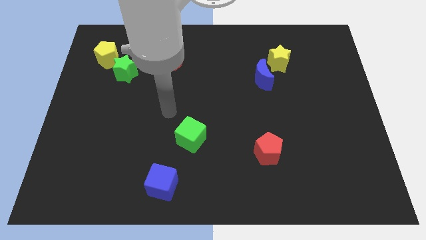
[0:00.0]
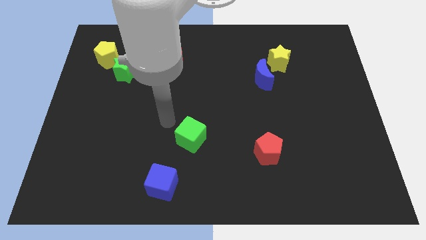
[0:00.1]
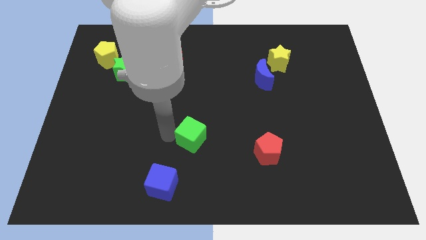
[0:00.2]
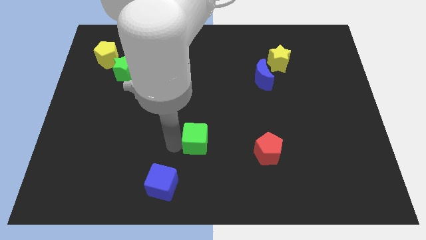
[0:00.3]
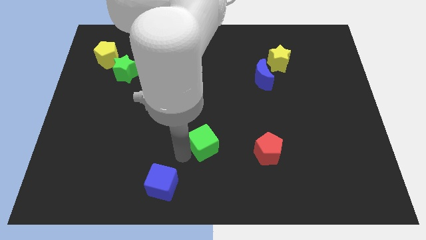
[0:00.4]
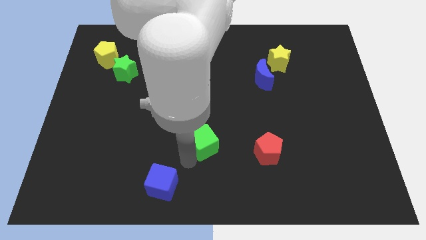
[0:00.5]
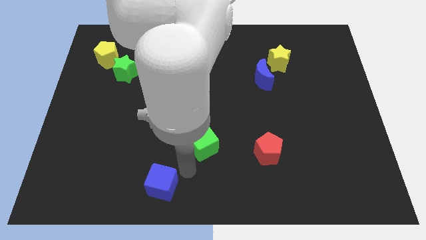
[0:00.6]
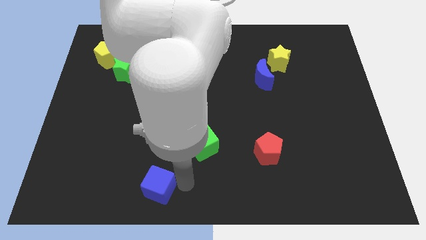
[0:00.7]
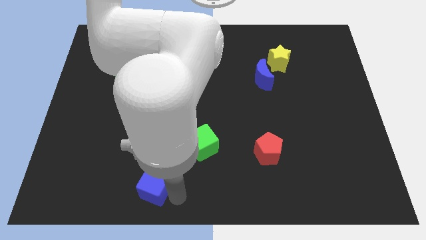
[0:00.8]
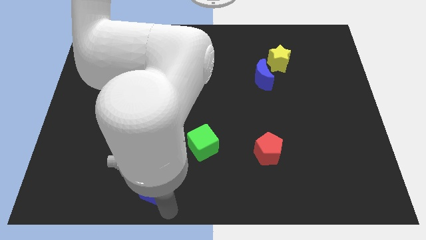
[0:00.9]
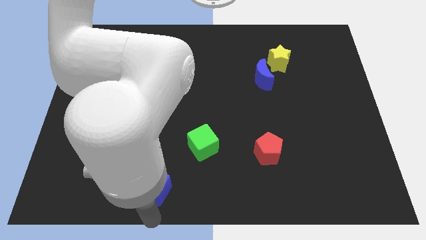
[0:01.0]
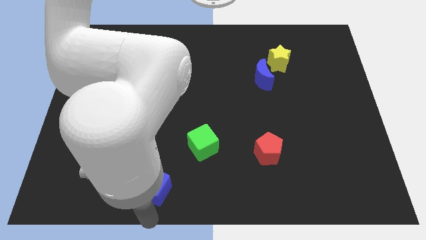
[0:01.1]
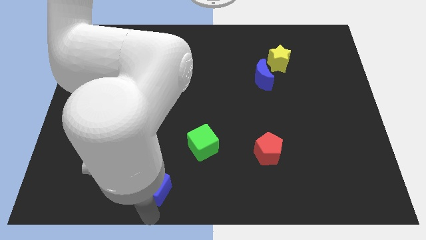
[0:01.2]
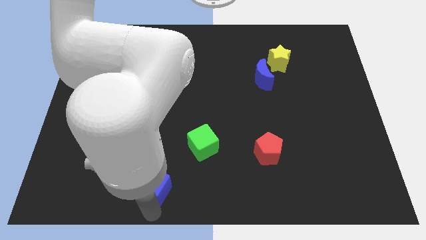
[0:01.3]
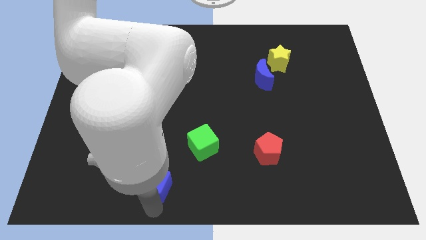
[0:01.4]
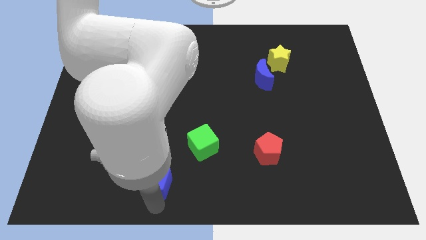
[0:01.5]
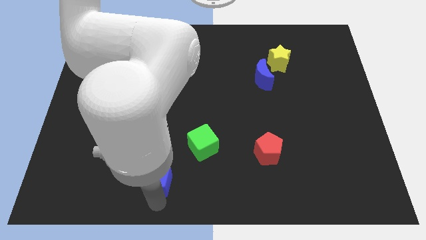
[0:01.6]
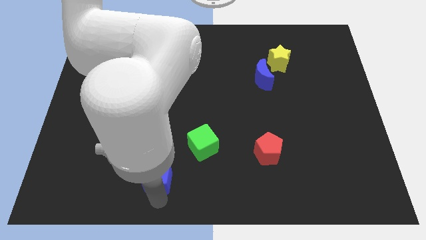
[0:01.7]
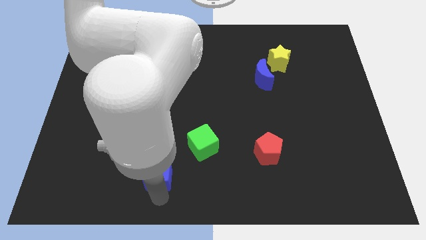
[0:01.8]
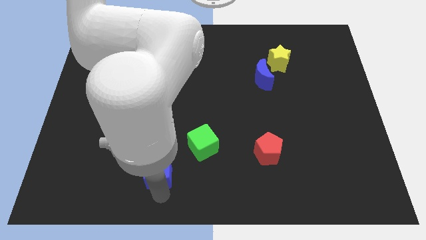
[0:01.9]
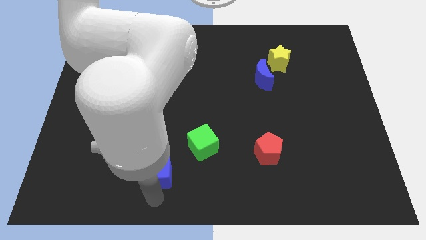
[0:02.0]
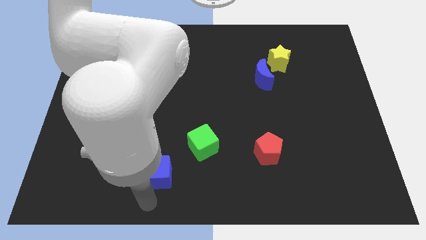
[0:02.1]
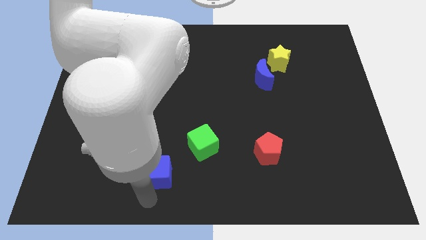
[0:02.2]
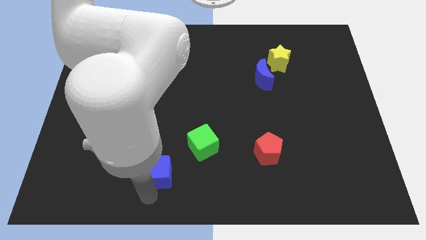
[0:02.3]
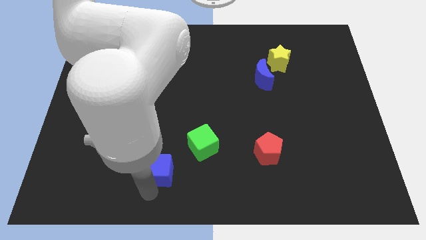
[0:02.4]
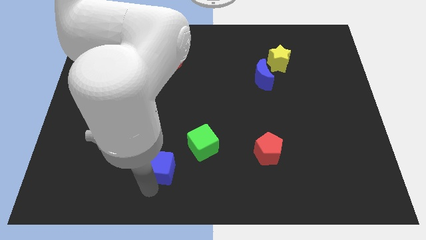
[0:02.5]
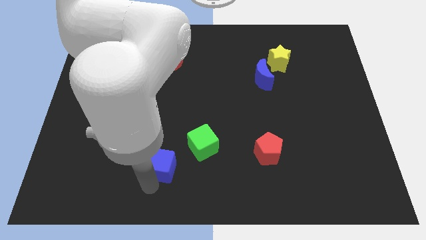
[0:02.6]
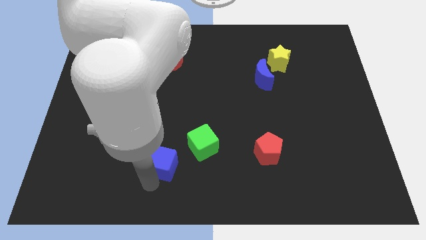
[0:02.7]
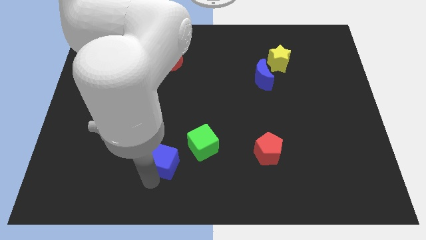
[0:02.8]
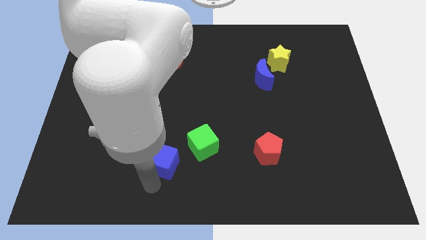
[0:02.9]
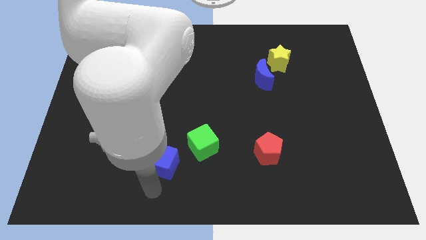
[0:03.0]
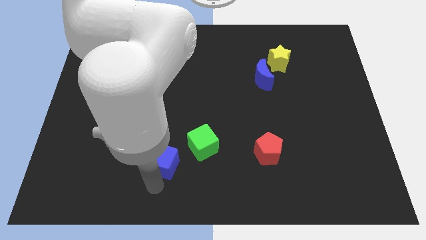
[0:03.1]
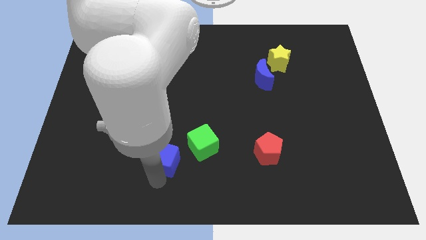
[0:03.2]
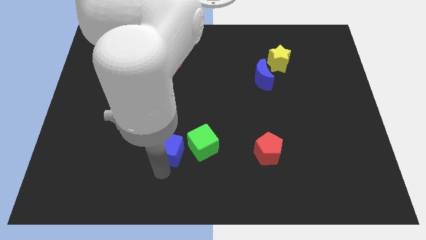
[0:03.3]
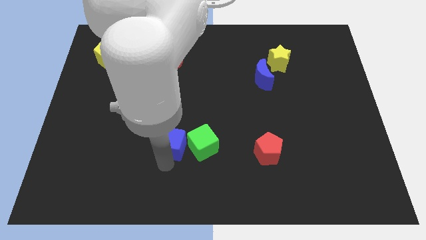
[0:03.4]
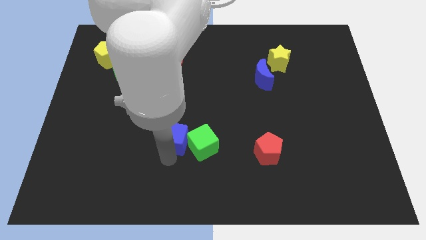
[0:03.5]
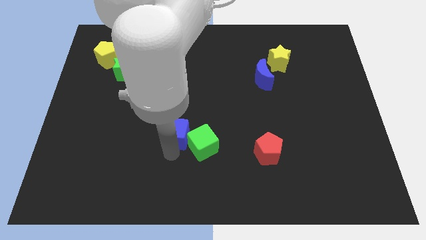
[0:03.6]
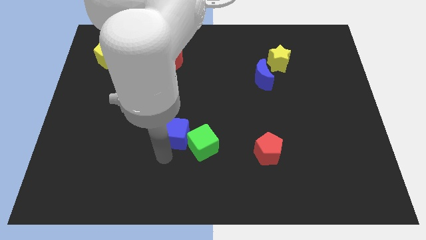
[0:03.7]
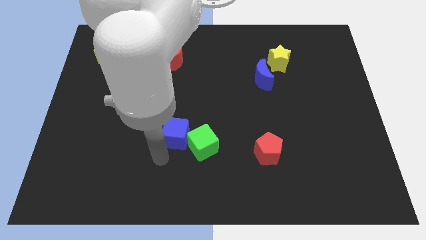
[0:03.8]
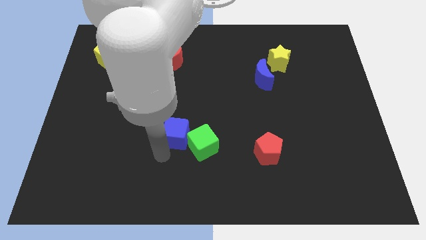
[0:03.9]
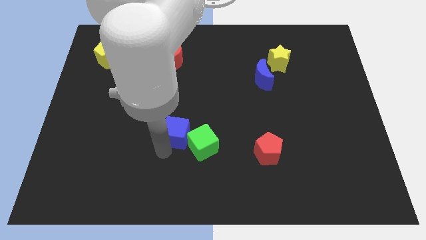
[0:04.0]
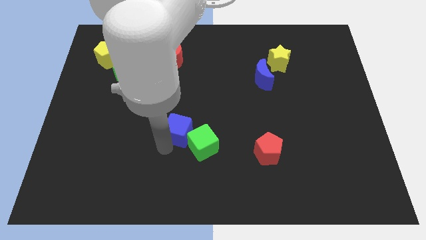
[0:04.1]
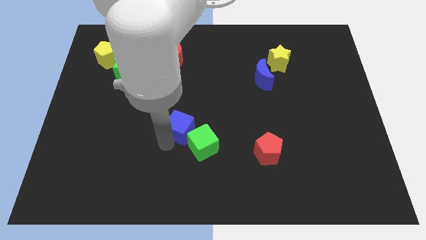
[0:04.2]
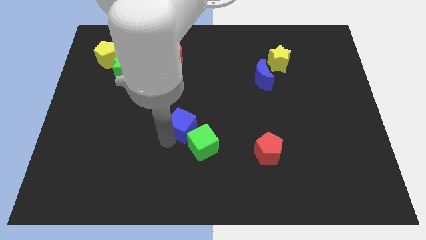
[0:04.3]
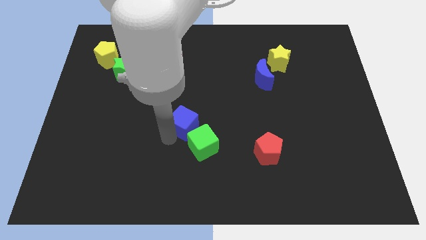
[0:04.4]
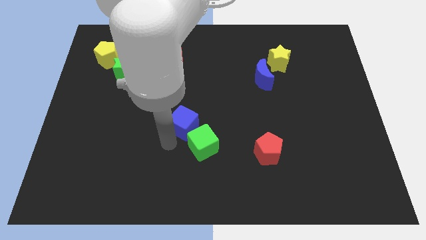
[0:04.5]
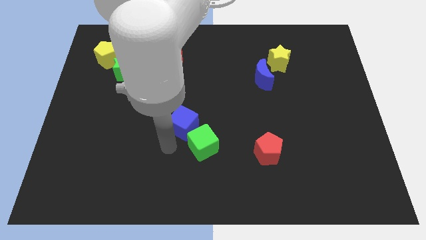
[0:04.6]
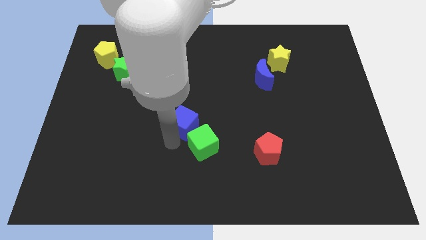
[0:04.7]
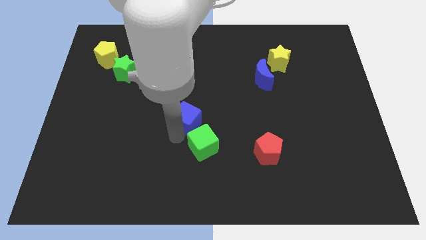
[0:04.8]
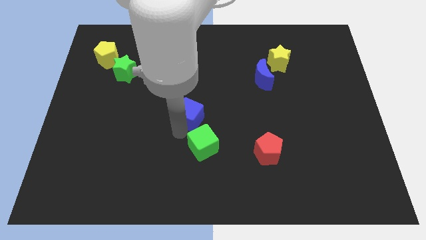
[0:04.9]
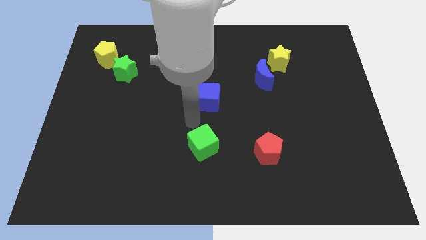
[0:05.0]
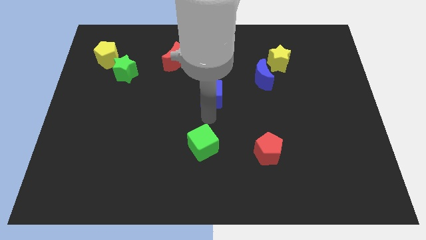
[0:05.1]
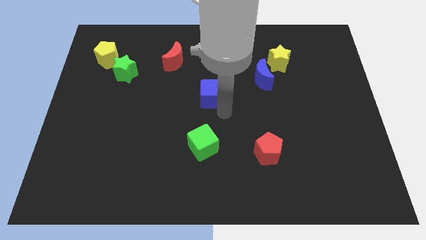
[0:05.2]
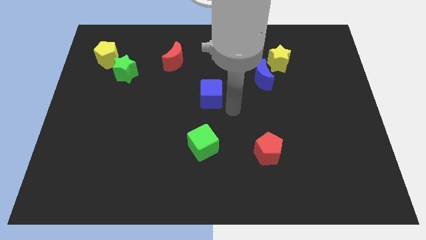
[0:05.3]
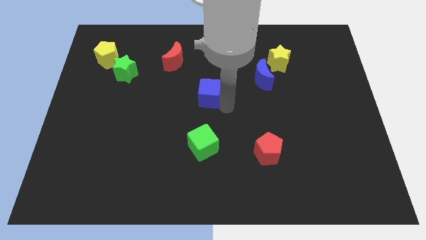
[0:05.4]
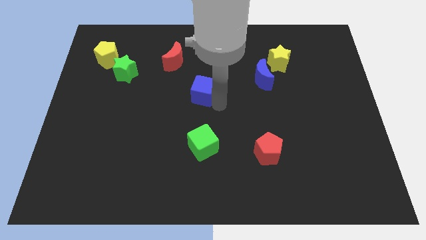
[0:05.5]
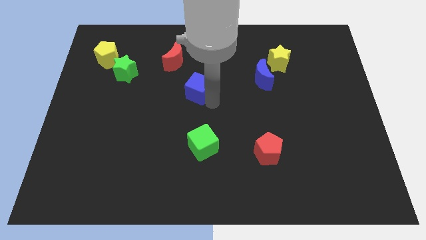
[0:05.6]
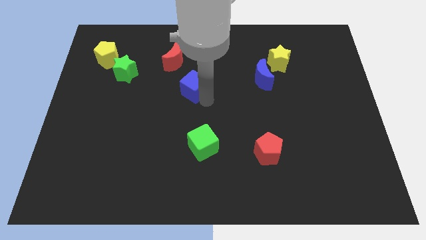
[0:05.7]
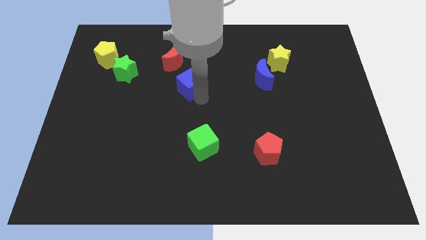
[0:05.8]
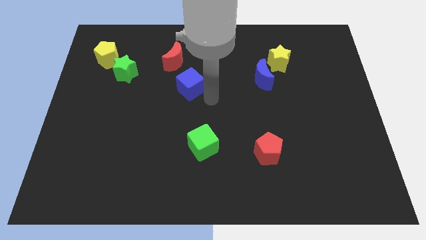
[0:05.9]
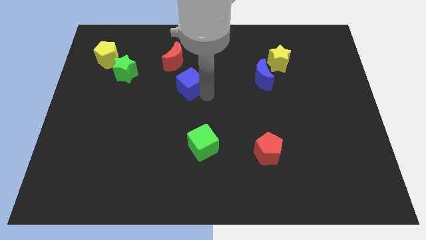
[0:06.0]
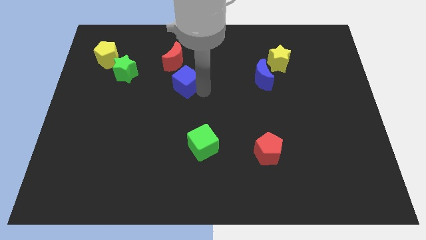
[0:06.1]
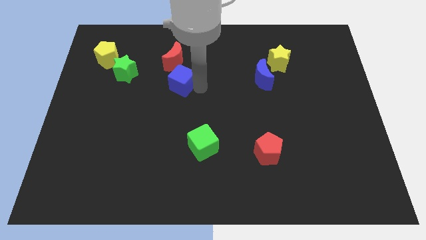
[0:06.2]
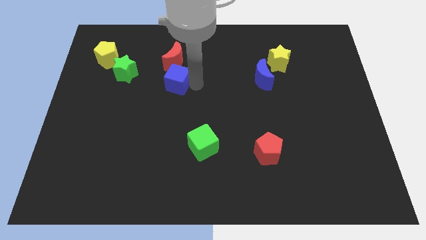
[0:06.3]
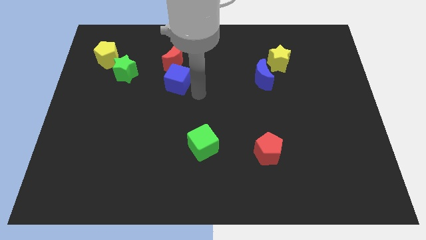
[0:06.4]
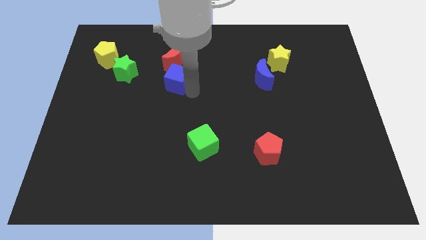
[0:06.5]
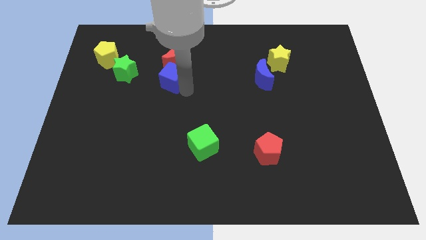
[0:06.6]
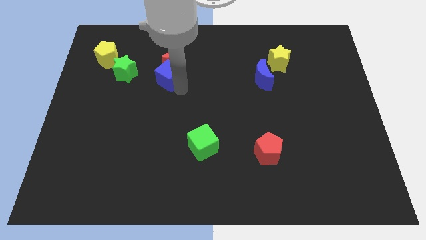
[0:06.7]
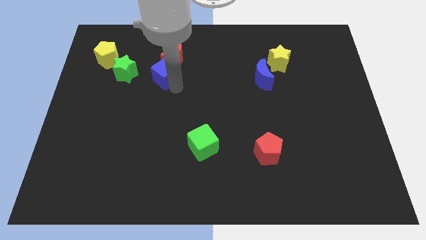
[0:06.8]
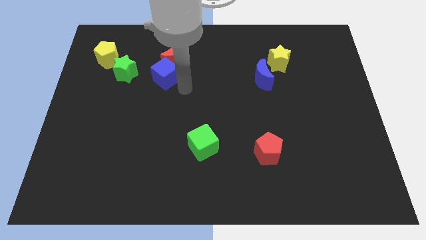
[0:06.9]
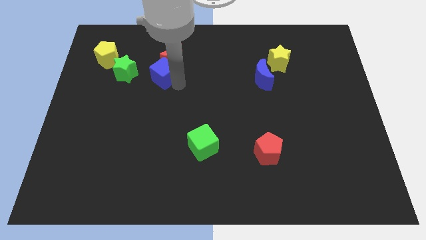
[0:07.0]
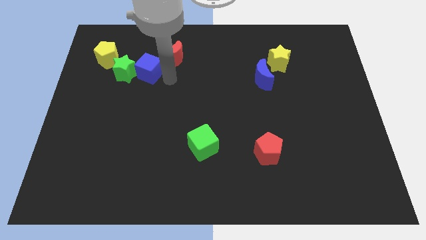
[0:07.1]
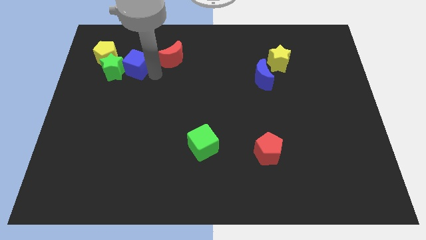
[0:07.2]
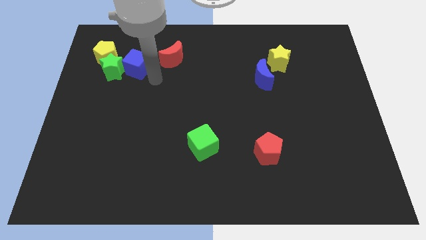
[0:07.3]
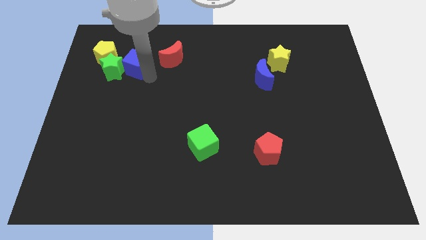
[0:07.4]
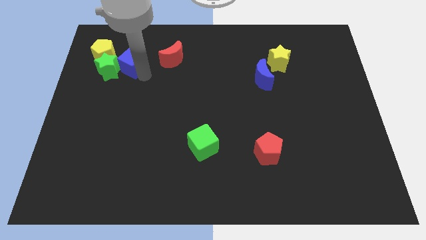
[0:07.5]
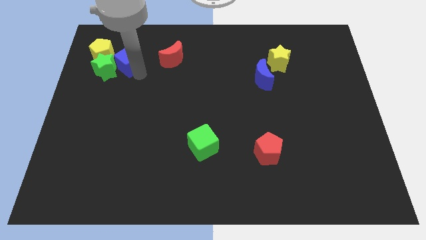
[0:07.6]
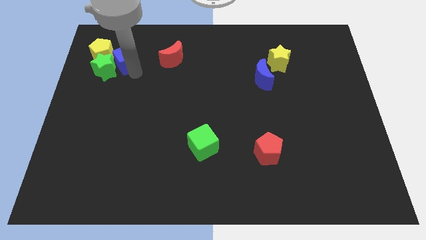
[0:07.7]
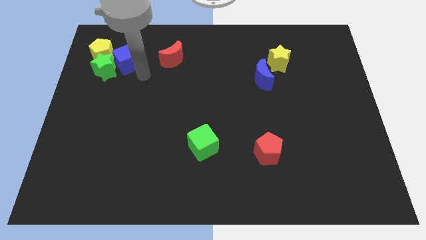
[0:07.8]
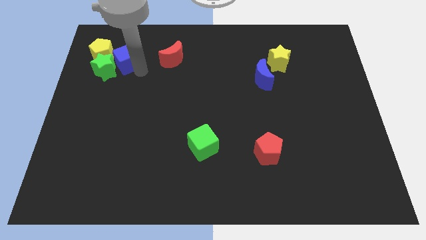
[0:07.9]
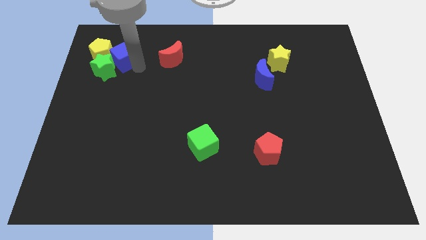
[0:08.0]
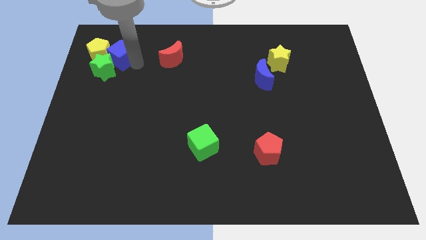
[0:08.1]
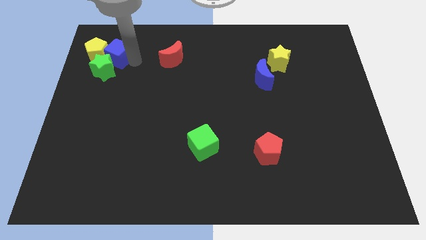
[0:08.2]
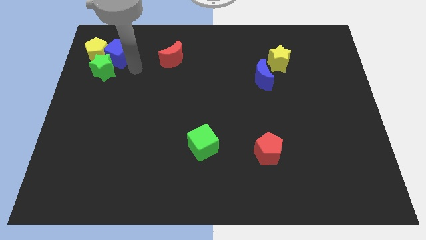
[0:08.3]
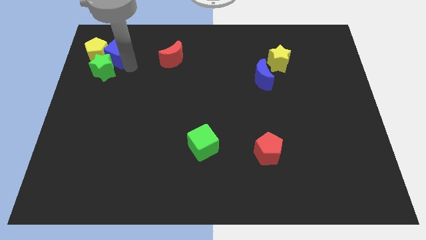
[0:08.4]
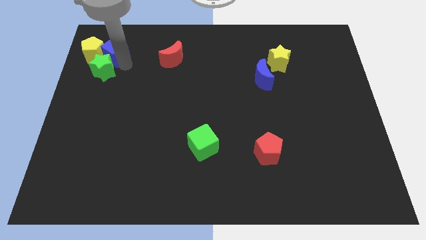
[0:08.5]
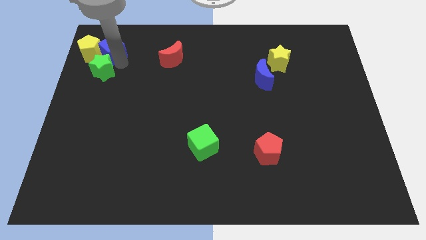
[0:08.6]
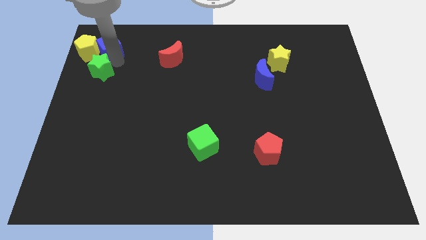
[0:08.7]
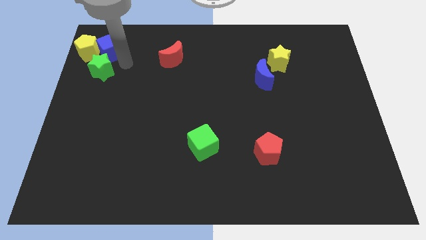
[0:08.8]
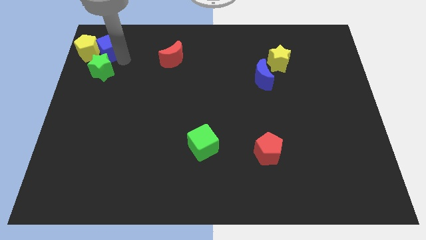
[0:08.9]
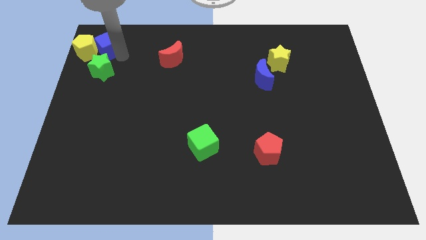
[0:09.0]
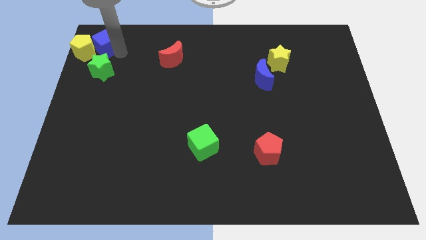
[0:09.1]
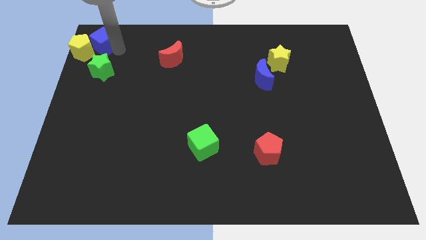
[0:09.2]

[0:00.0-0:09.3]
slide the blue cube to the top left of the board
